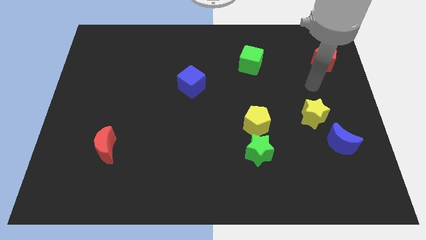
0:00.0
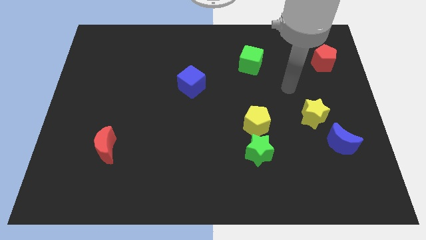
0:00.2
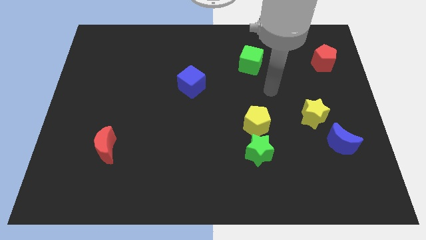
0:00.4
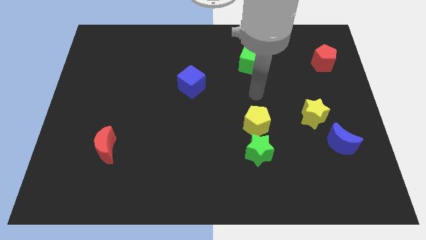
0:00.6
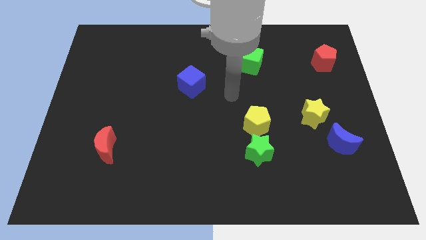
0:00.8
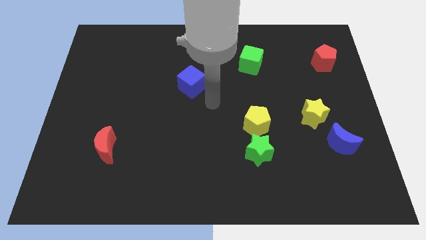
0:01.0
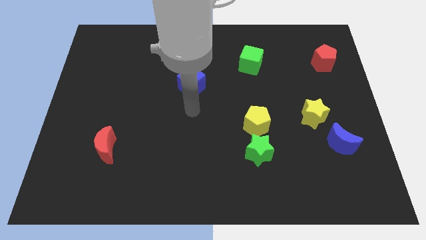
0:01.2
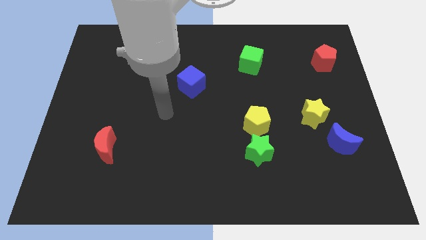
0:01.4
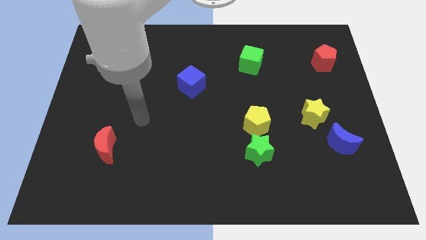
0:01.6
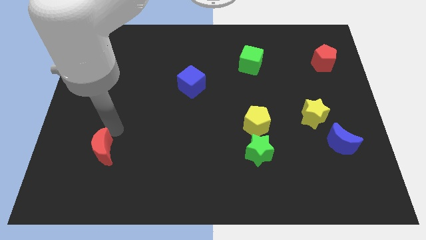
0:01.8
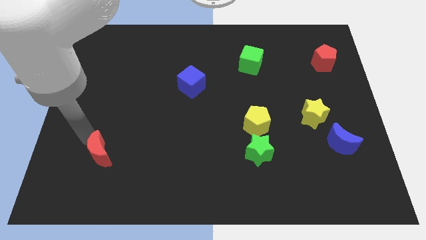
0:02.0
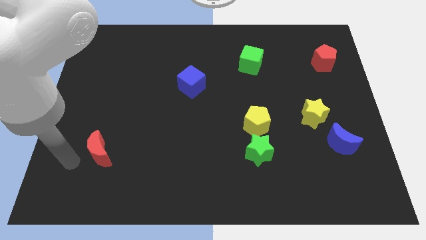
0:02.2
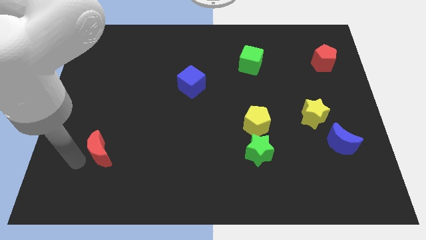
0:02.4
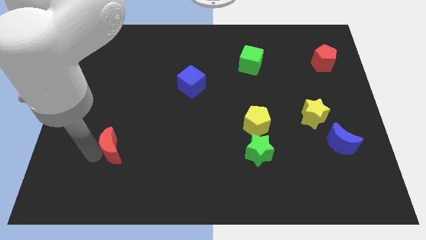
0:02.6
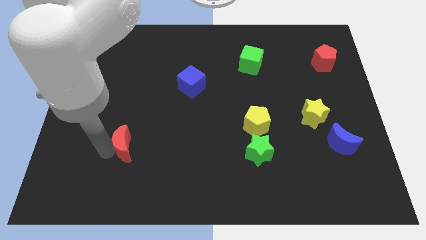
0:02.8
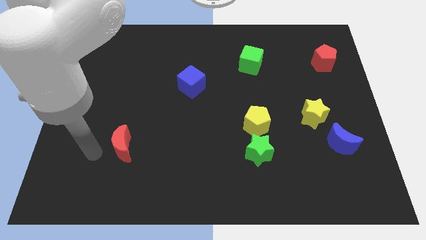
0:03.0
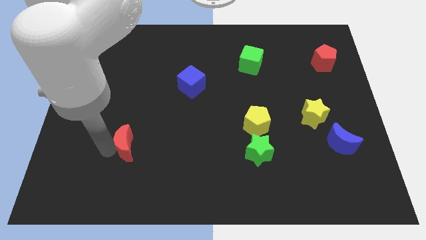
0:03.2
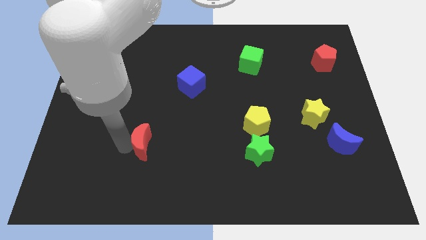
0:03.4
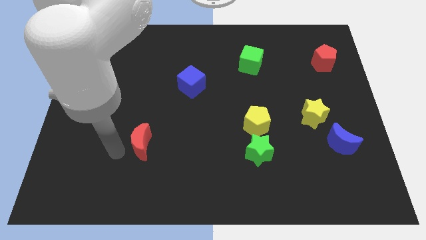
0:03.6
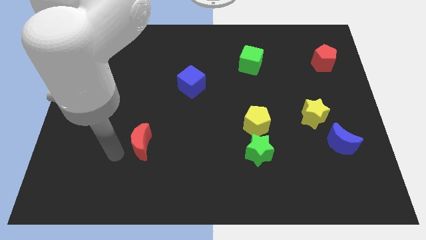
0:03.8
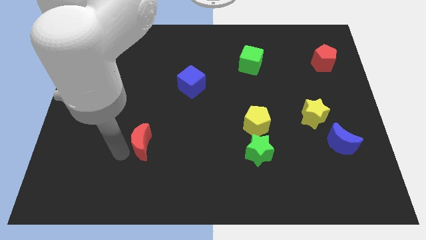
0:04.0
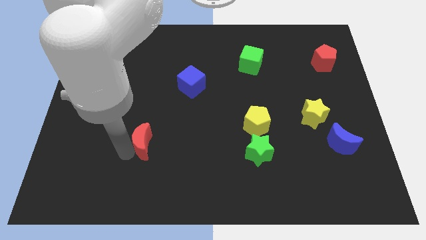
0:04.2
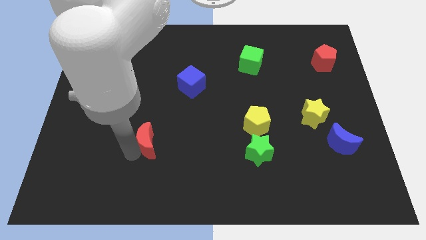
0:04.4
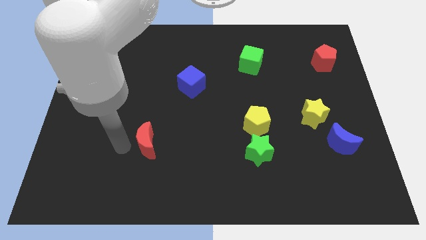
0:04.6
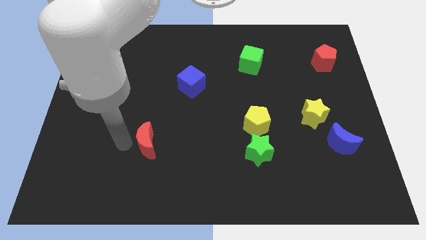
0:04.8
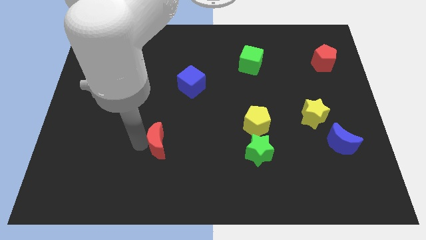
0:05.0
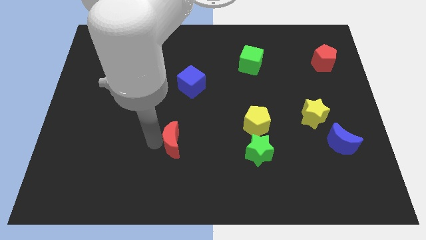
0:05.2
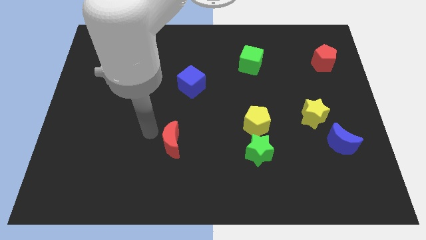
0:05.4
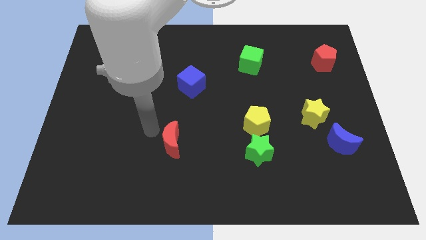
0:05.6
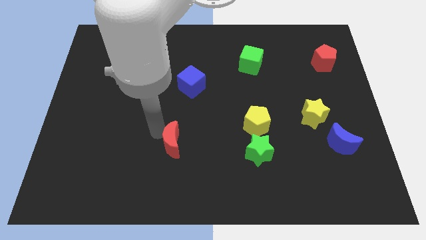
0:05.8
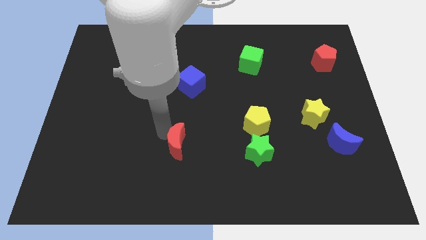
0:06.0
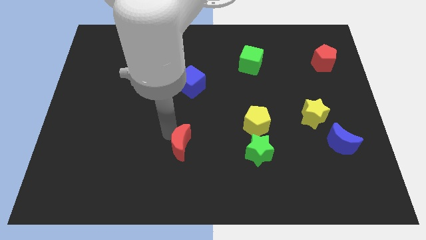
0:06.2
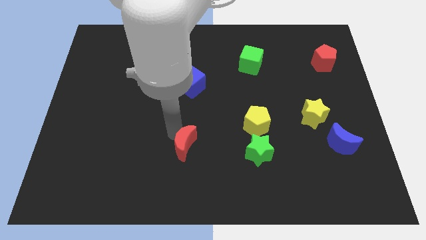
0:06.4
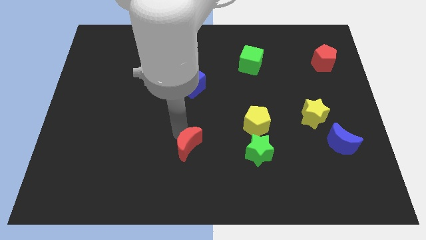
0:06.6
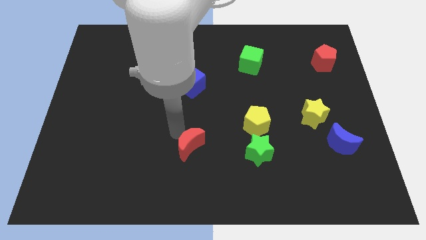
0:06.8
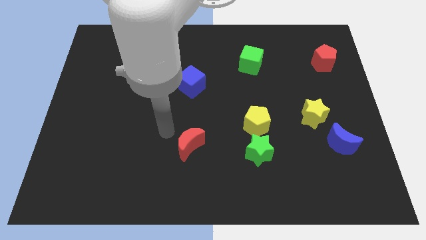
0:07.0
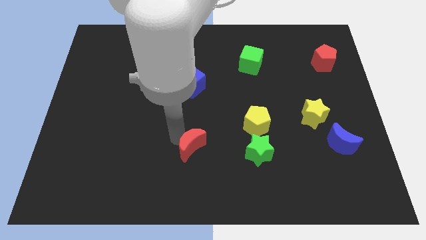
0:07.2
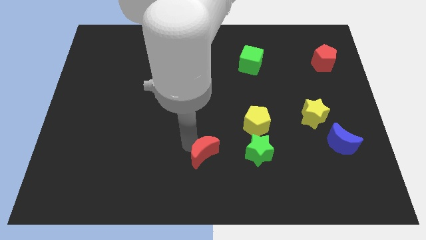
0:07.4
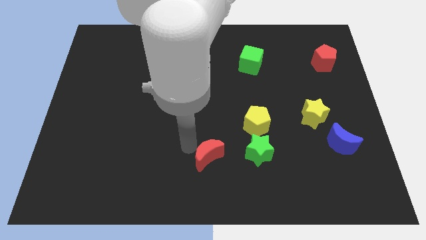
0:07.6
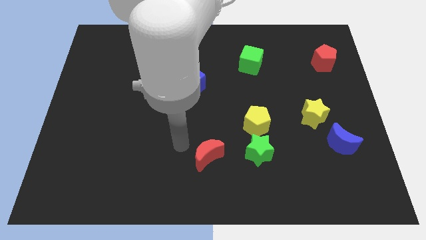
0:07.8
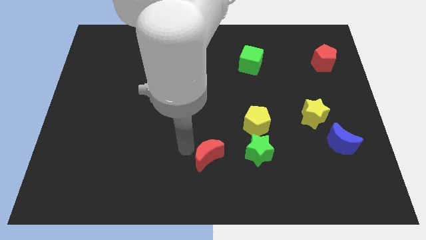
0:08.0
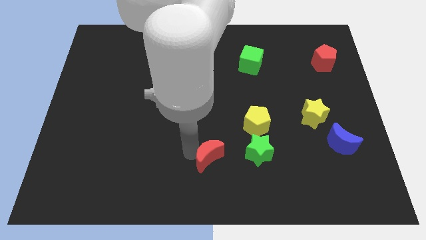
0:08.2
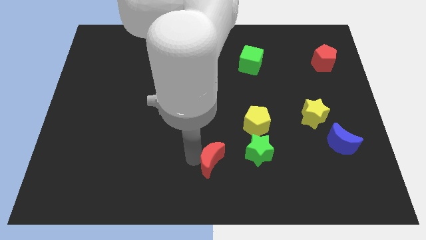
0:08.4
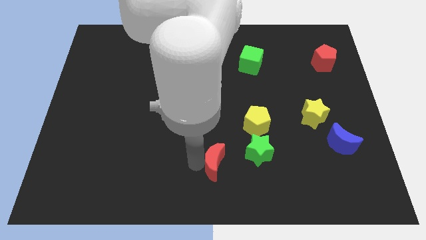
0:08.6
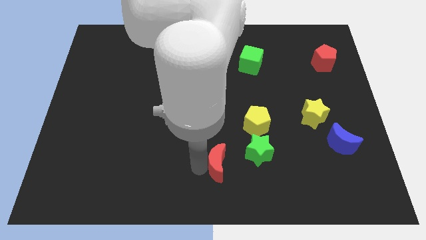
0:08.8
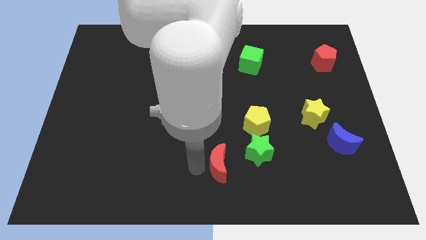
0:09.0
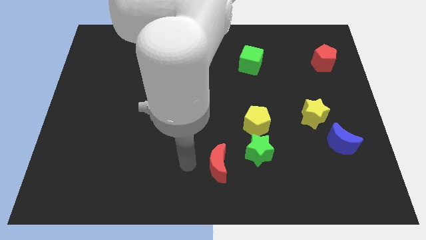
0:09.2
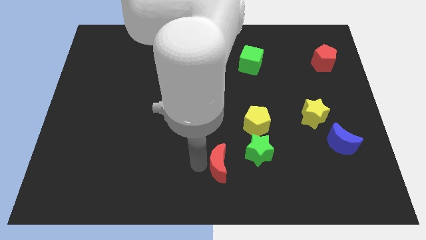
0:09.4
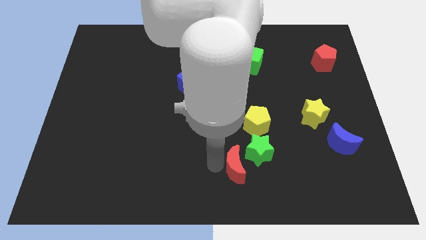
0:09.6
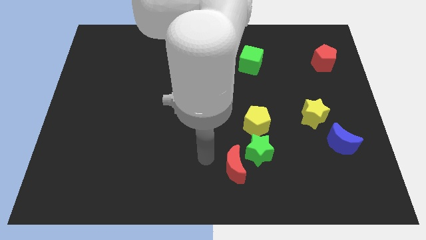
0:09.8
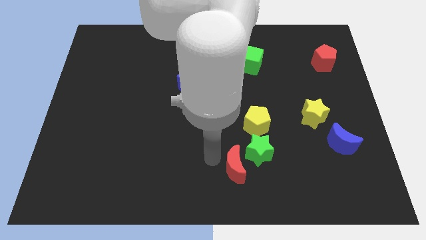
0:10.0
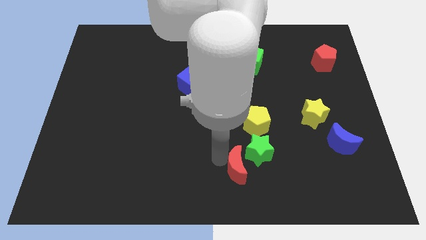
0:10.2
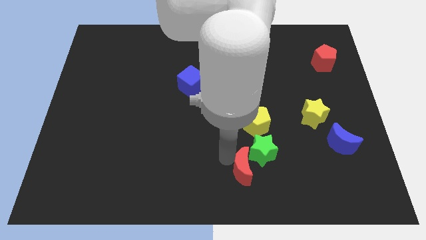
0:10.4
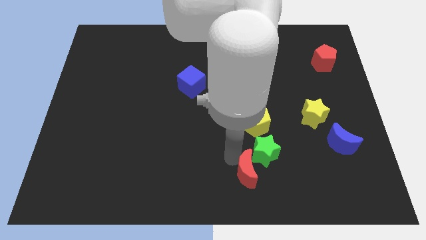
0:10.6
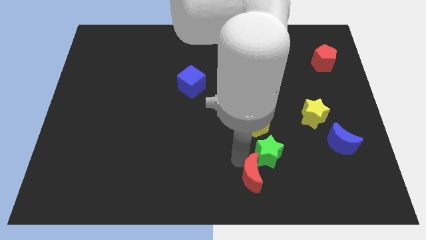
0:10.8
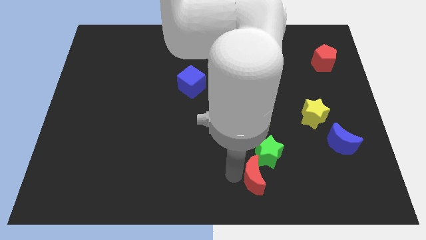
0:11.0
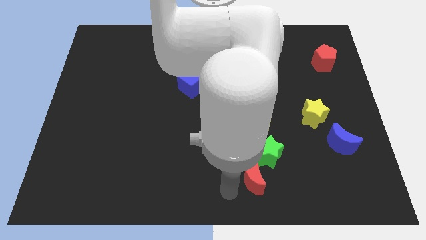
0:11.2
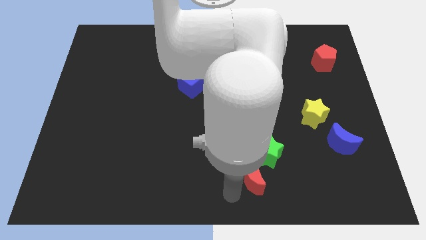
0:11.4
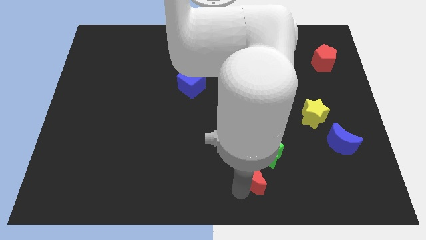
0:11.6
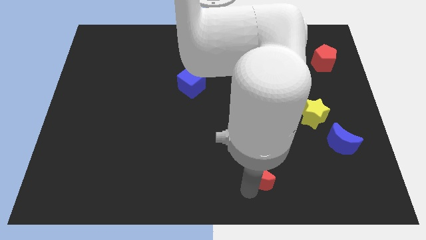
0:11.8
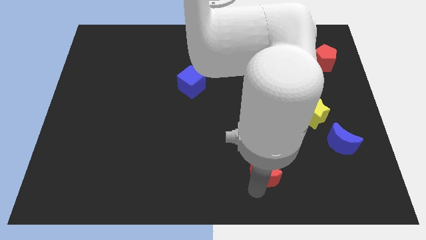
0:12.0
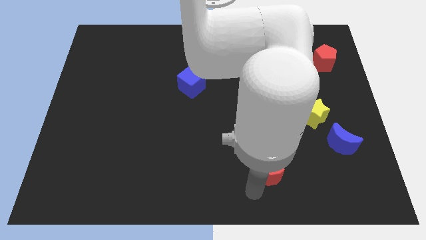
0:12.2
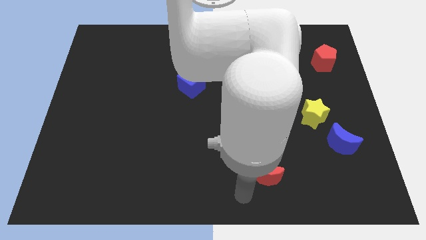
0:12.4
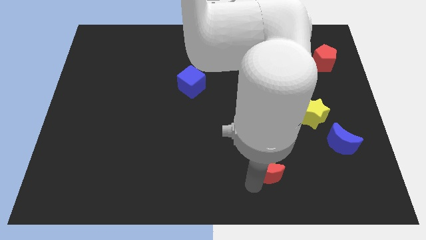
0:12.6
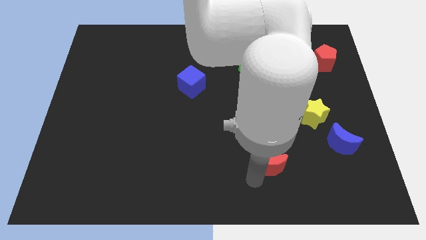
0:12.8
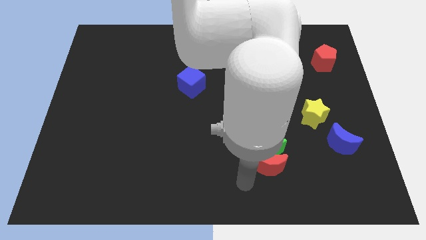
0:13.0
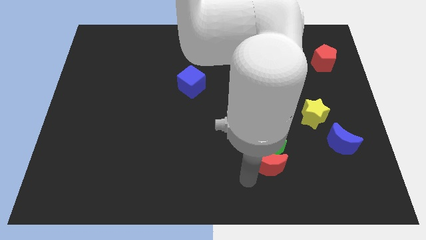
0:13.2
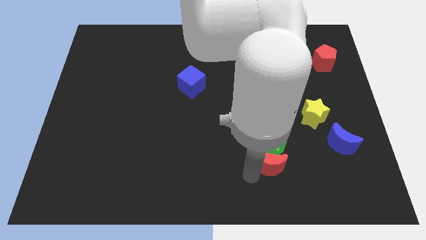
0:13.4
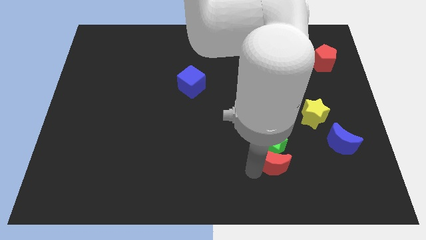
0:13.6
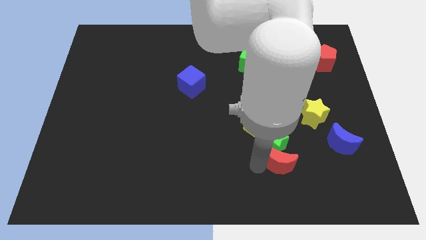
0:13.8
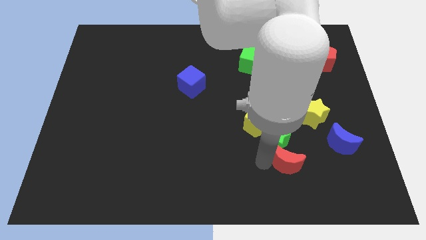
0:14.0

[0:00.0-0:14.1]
move the red moon just left of the blue moon
